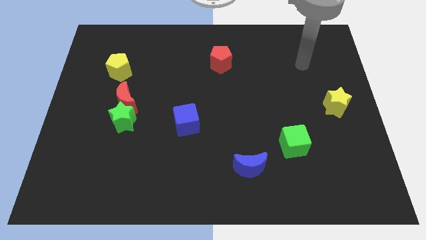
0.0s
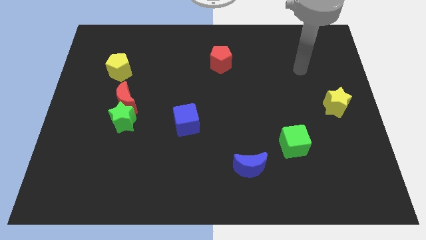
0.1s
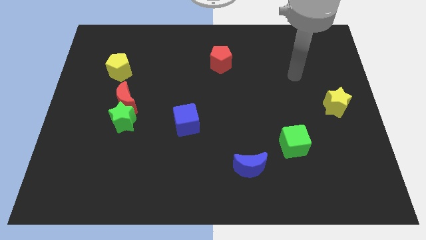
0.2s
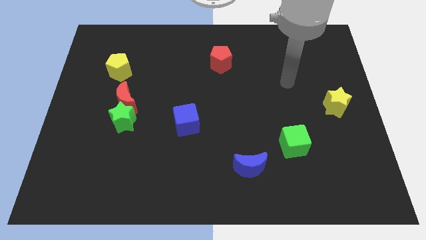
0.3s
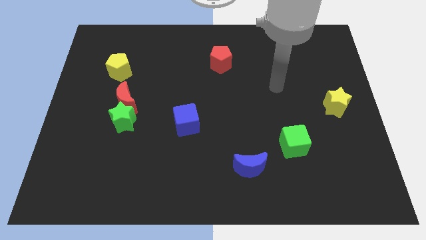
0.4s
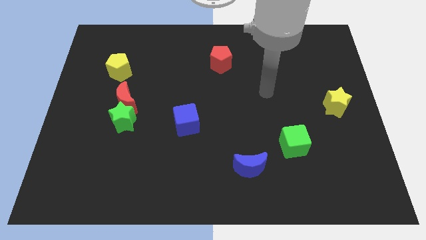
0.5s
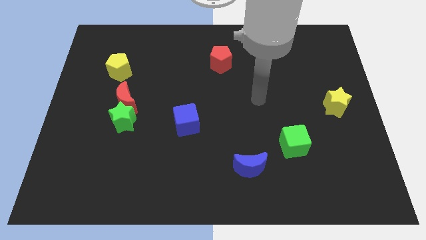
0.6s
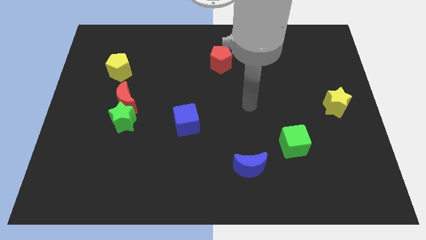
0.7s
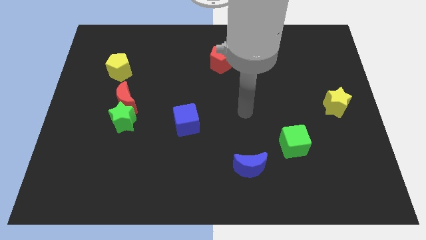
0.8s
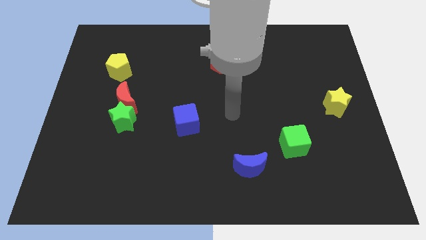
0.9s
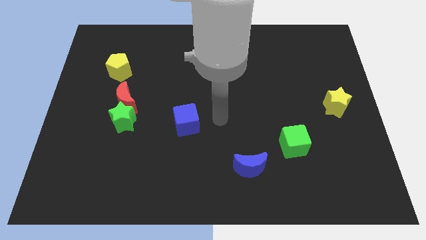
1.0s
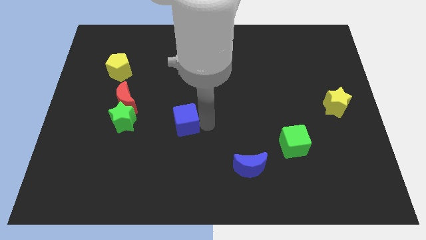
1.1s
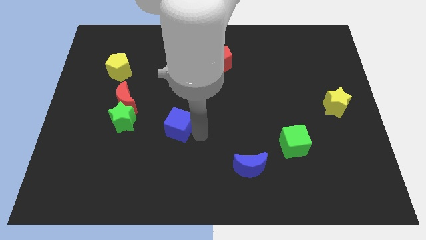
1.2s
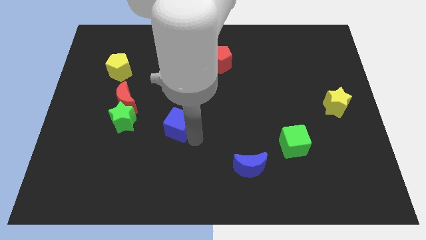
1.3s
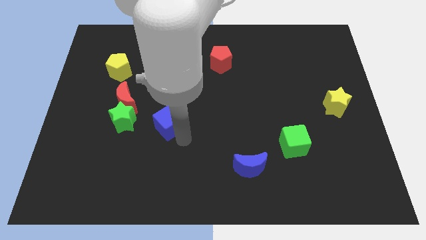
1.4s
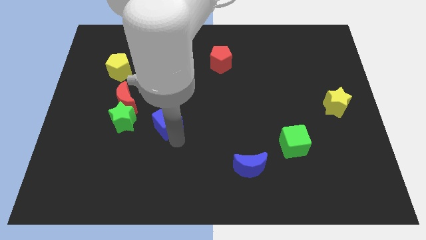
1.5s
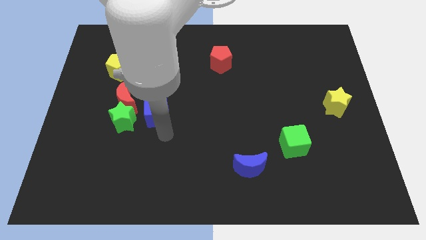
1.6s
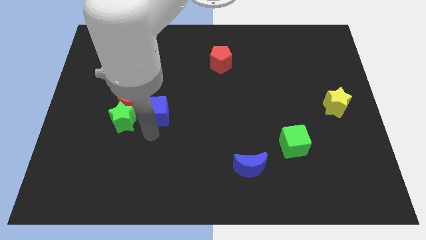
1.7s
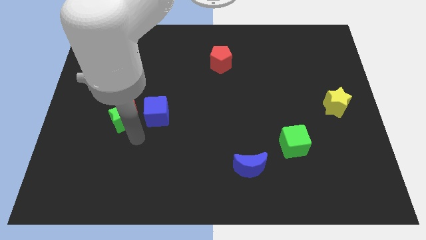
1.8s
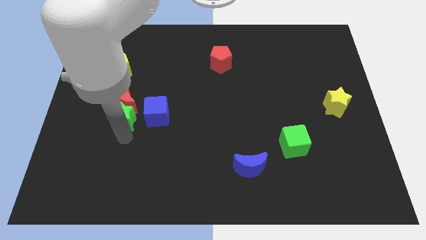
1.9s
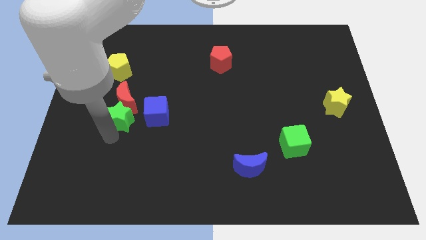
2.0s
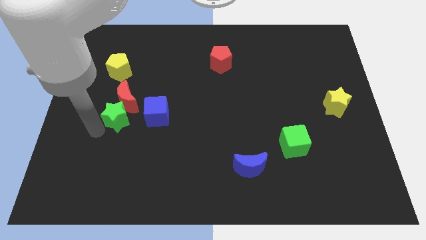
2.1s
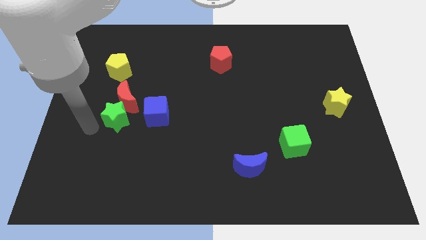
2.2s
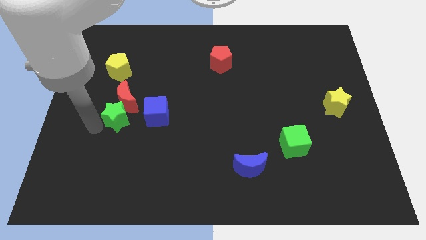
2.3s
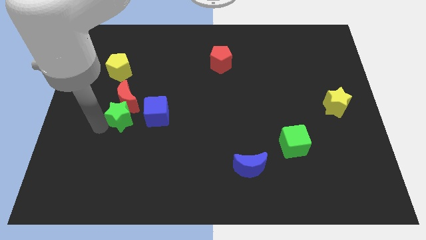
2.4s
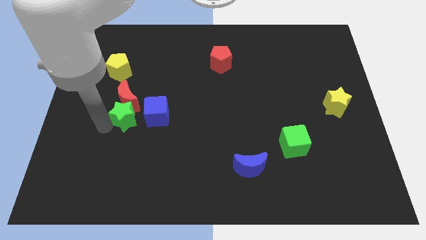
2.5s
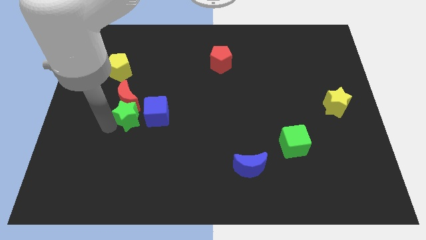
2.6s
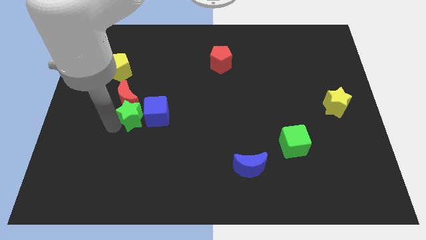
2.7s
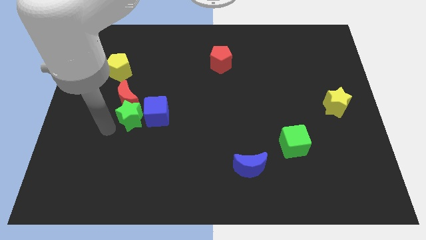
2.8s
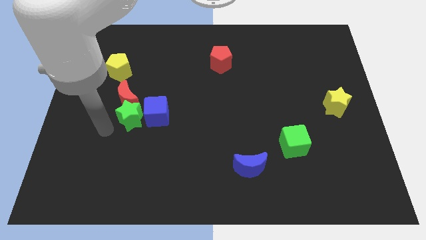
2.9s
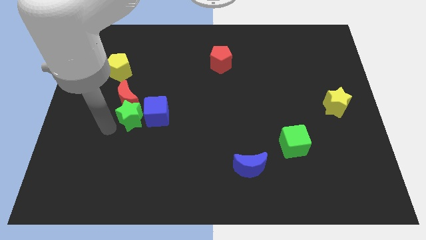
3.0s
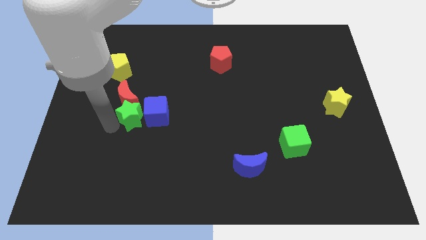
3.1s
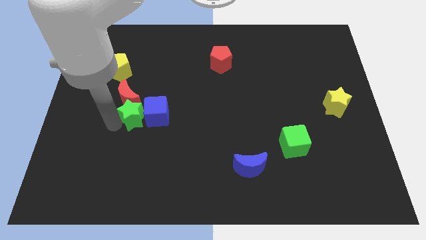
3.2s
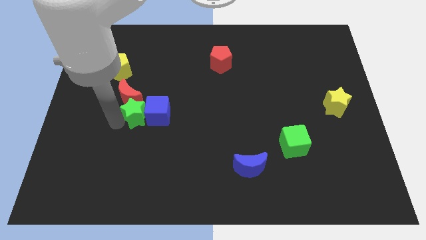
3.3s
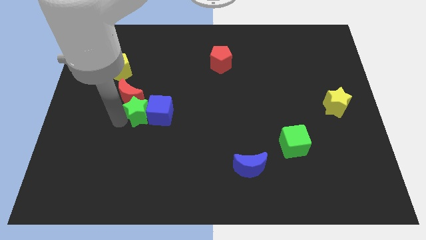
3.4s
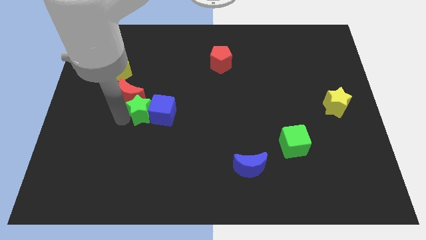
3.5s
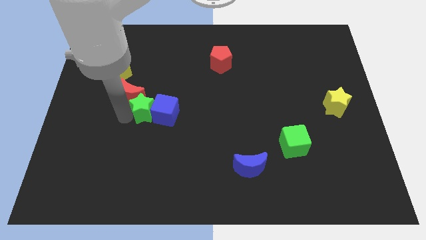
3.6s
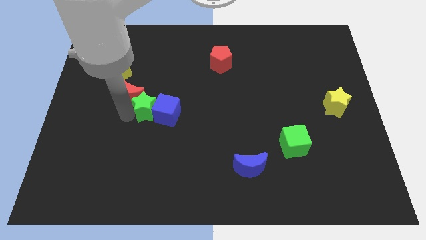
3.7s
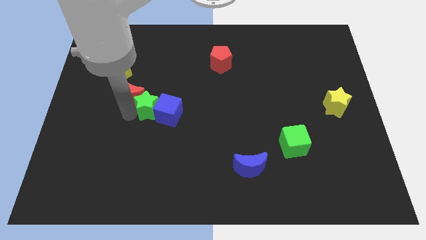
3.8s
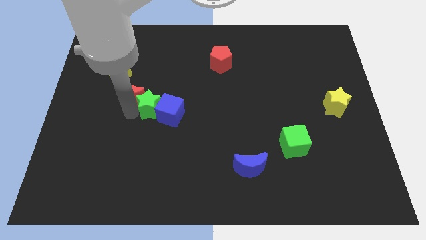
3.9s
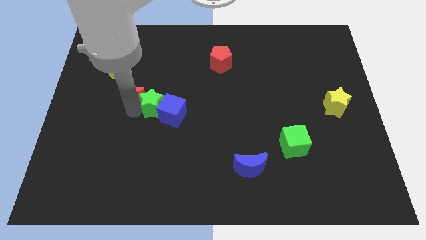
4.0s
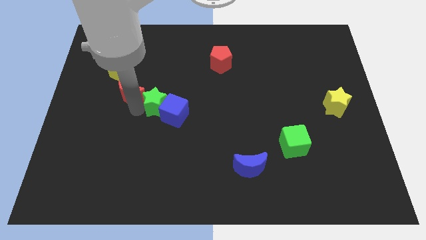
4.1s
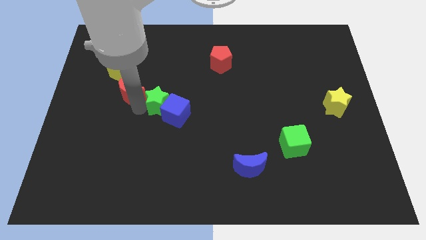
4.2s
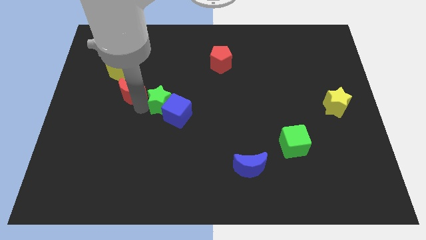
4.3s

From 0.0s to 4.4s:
push the green star a little right

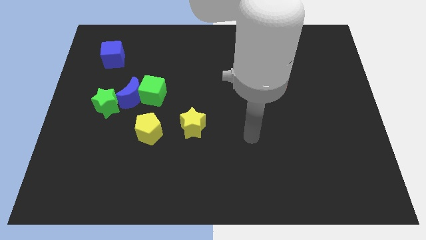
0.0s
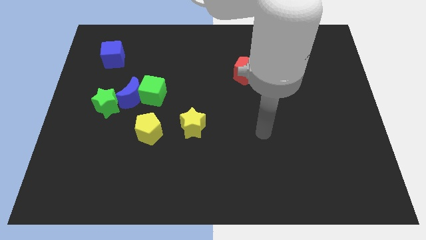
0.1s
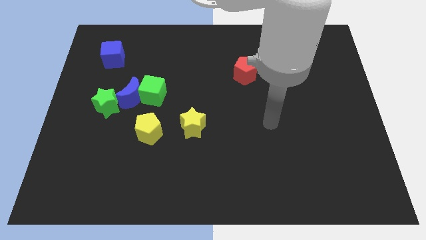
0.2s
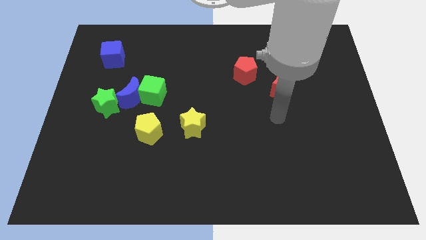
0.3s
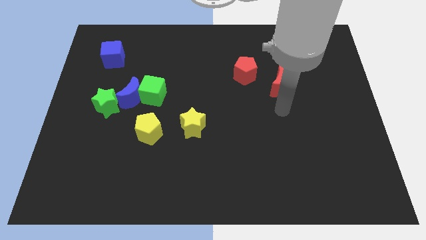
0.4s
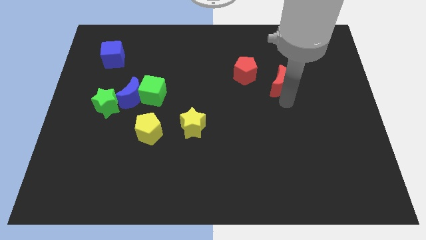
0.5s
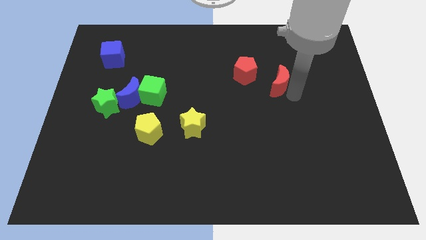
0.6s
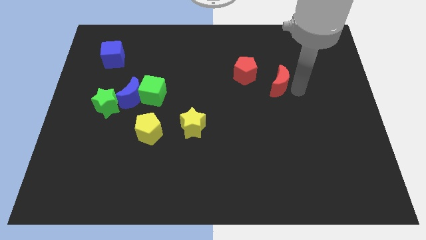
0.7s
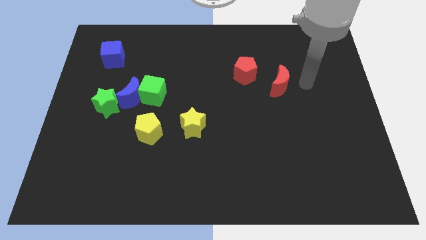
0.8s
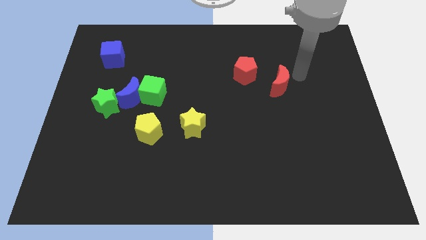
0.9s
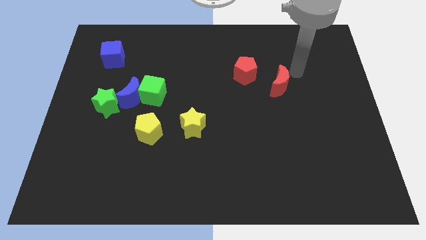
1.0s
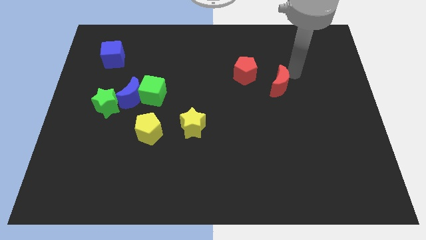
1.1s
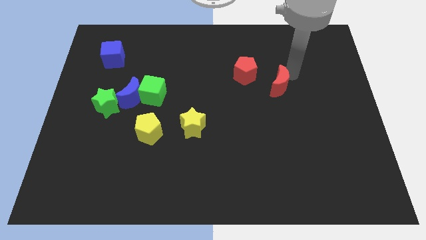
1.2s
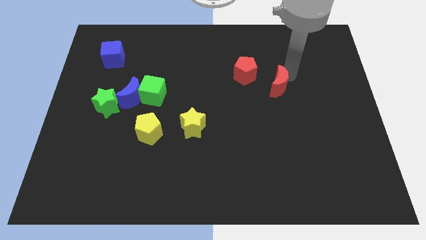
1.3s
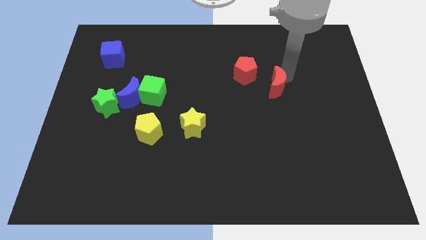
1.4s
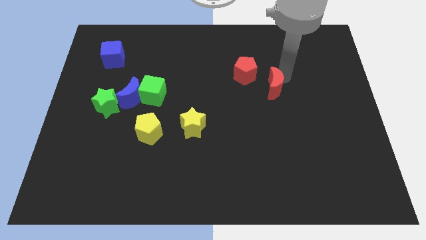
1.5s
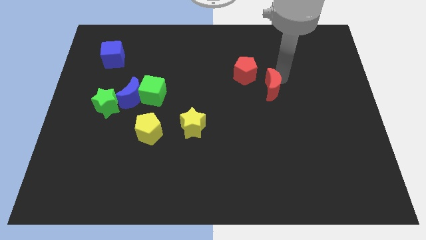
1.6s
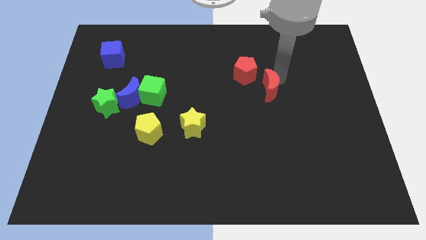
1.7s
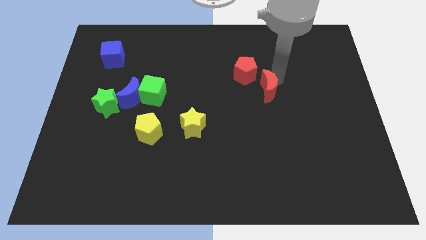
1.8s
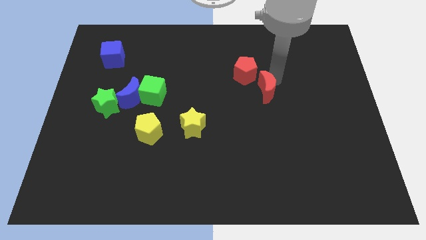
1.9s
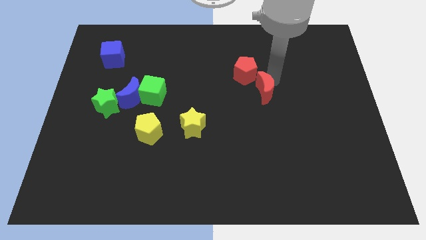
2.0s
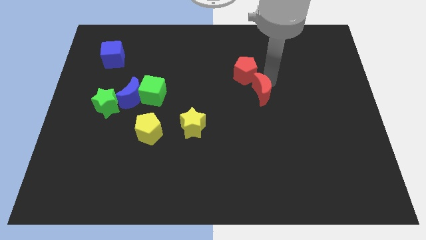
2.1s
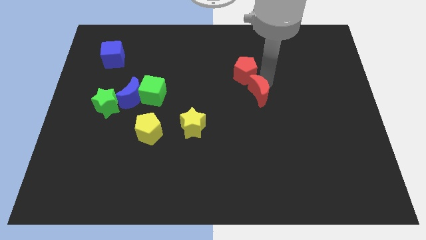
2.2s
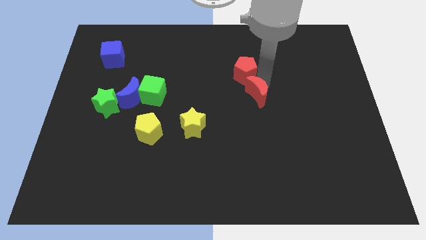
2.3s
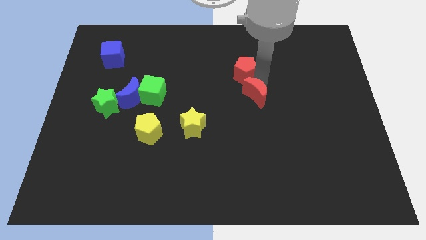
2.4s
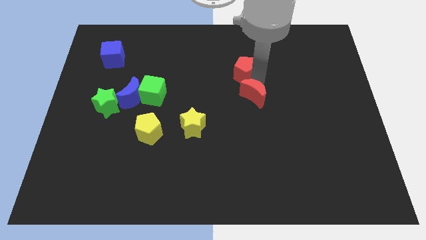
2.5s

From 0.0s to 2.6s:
push the red moon downwards and left a little bit

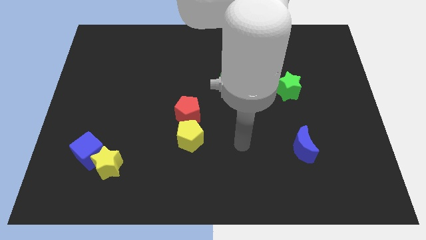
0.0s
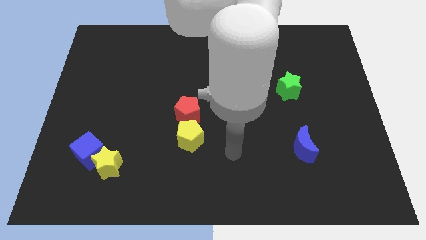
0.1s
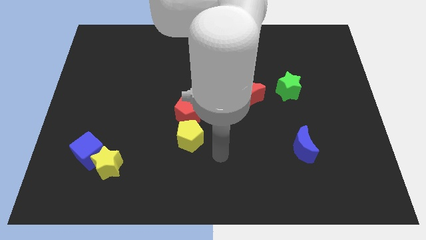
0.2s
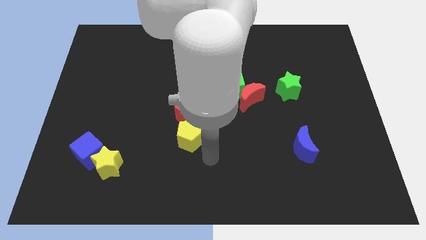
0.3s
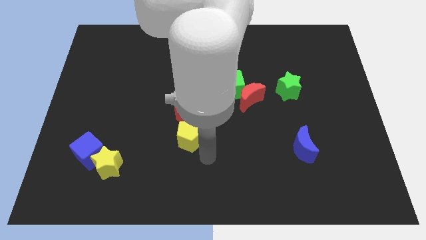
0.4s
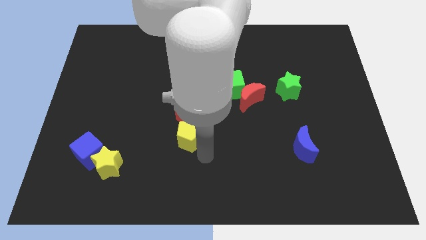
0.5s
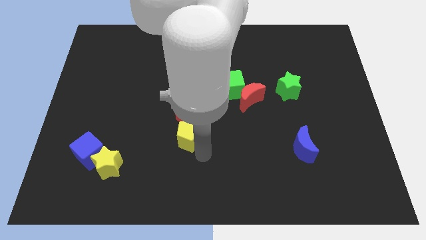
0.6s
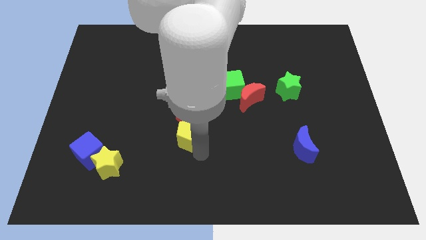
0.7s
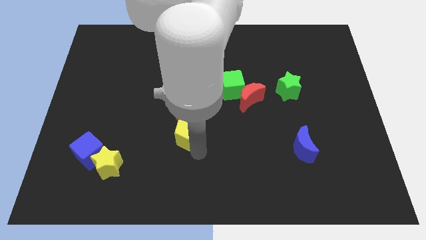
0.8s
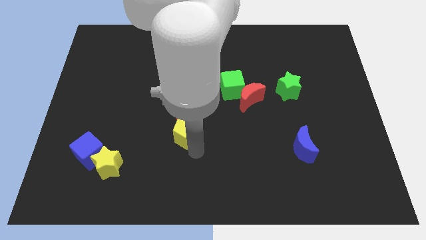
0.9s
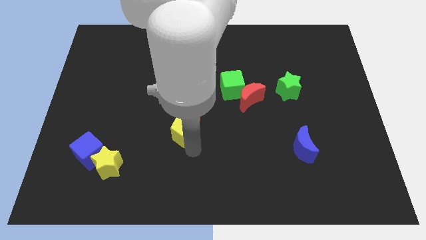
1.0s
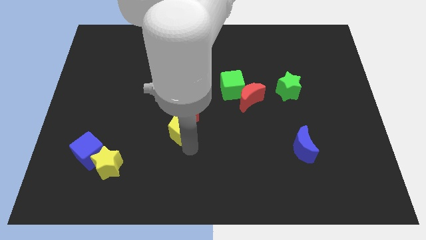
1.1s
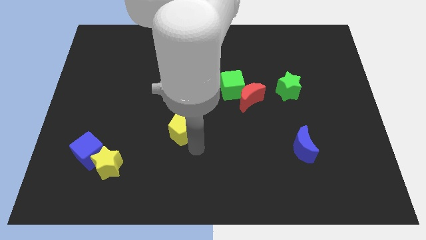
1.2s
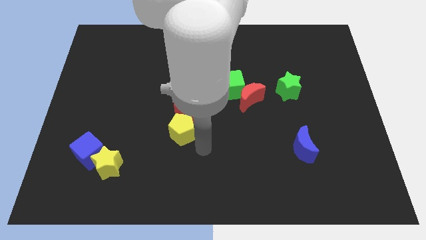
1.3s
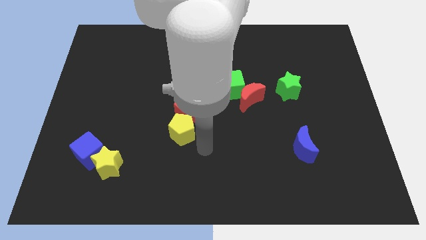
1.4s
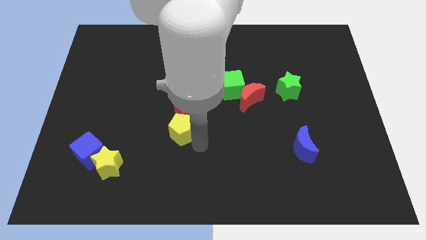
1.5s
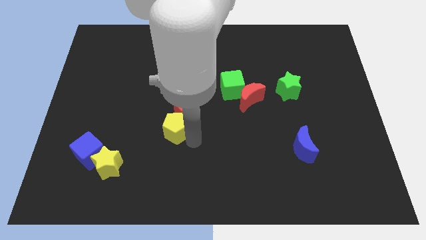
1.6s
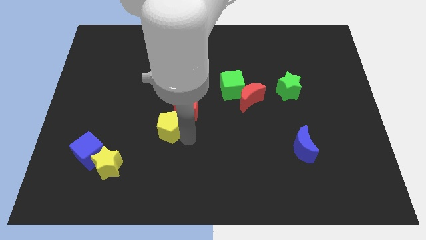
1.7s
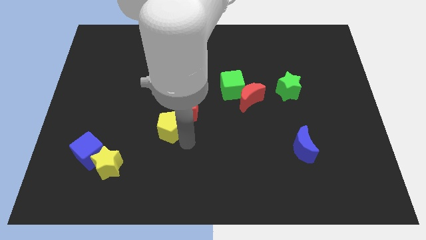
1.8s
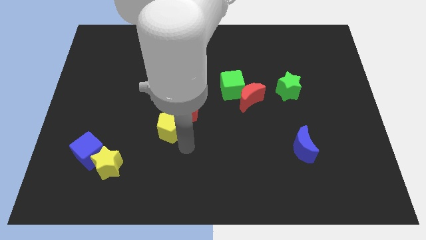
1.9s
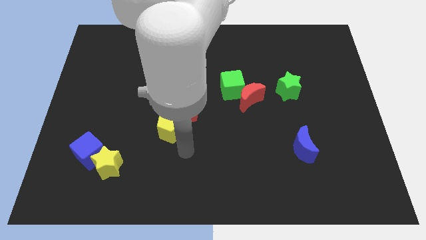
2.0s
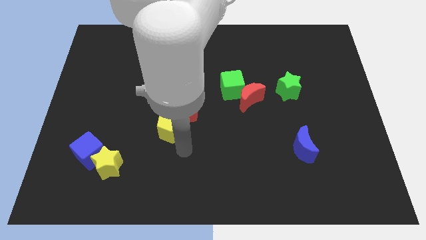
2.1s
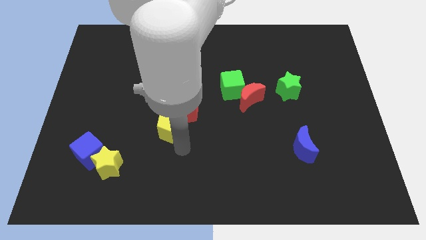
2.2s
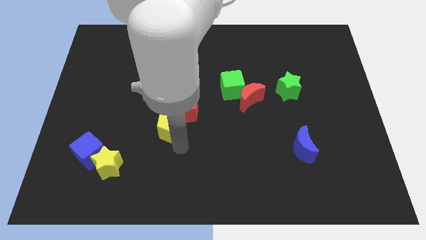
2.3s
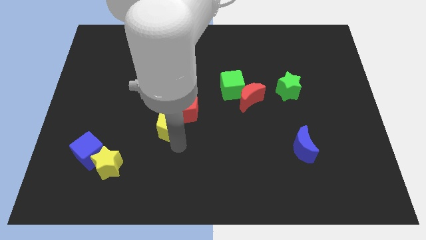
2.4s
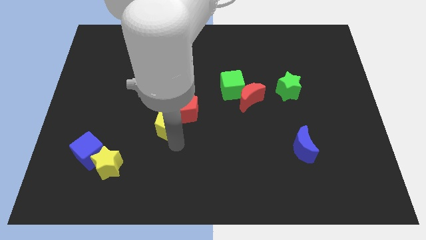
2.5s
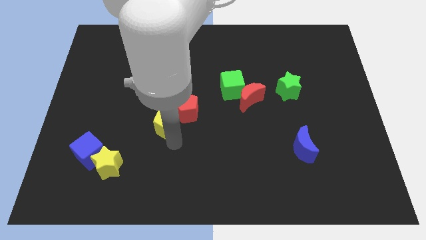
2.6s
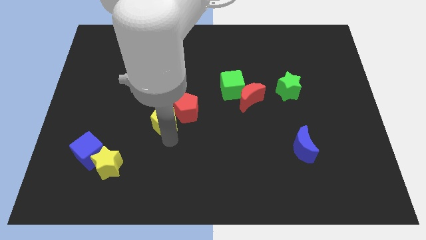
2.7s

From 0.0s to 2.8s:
slightly push the yellow pentagon up and left diagonally
